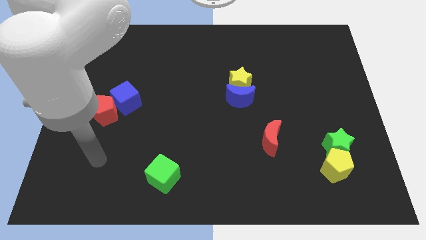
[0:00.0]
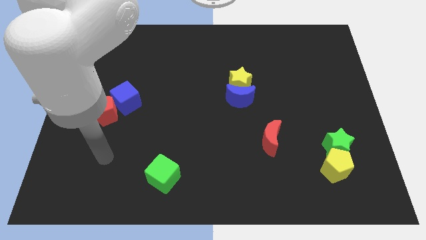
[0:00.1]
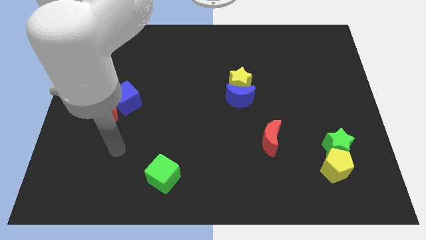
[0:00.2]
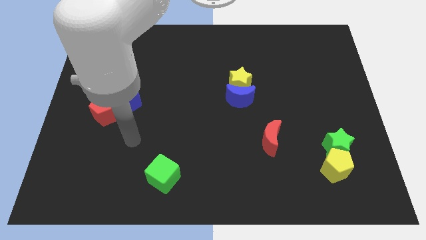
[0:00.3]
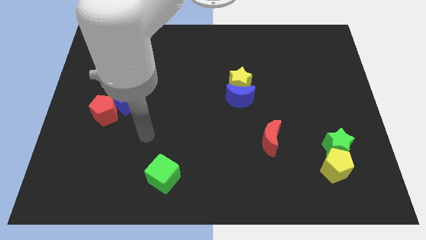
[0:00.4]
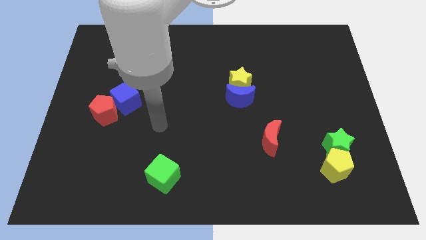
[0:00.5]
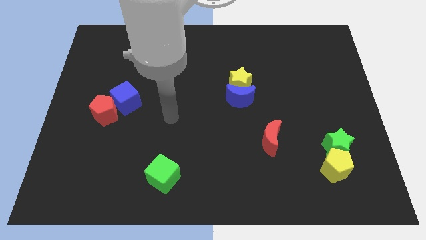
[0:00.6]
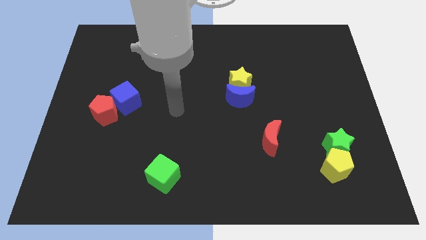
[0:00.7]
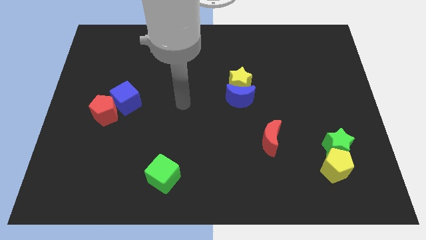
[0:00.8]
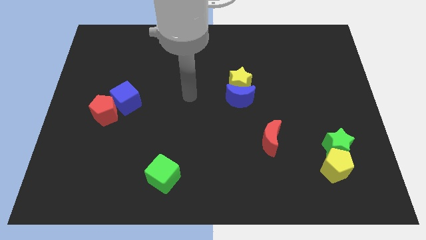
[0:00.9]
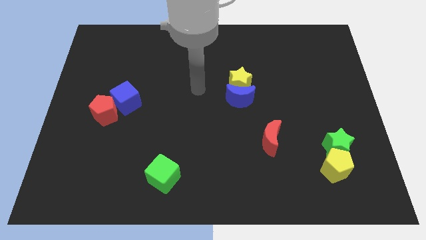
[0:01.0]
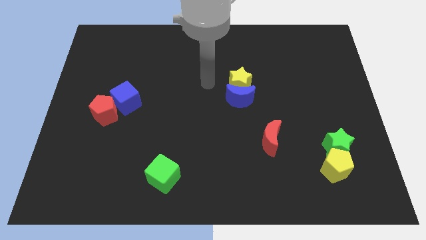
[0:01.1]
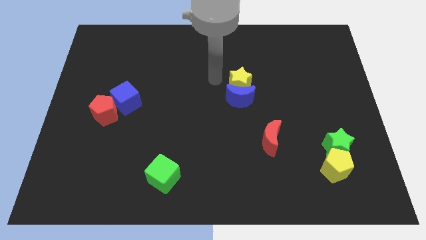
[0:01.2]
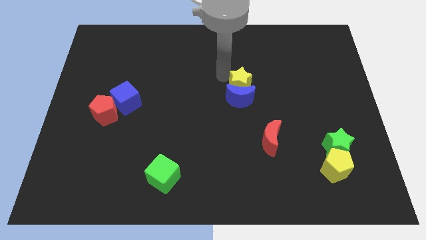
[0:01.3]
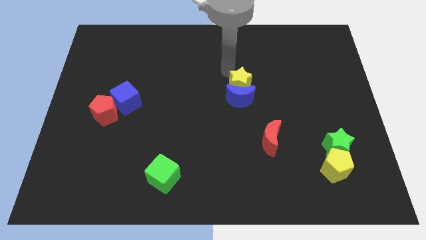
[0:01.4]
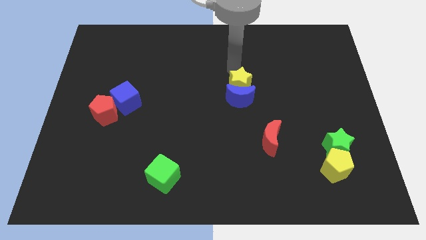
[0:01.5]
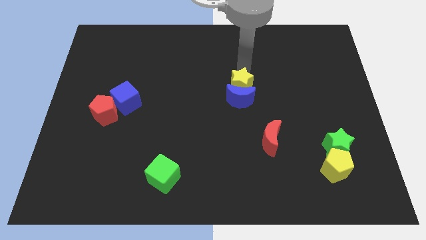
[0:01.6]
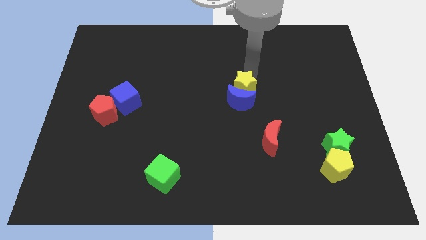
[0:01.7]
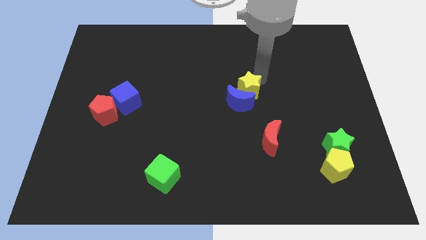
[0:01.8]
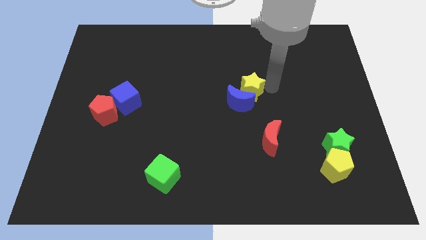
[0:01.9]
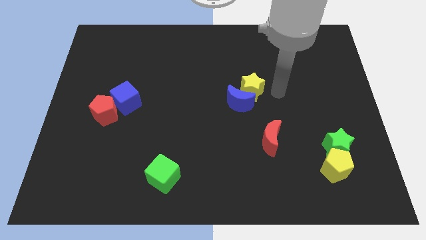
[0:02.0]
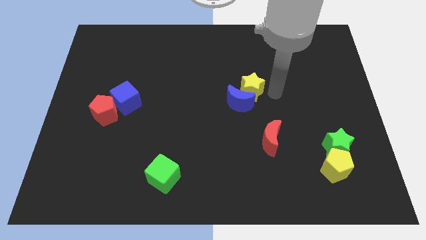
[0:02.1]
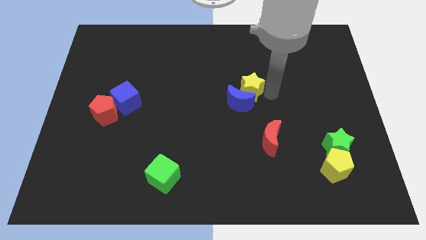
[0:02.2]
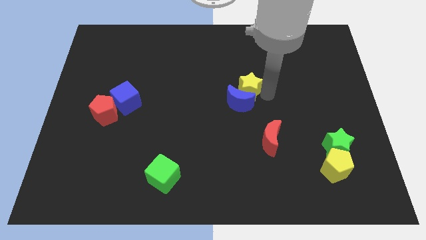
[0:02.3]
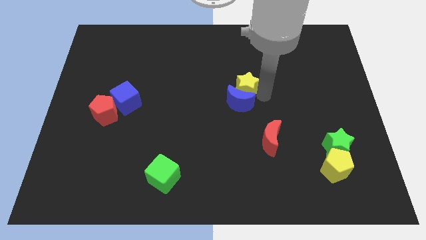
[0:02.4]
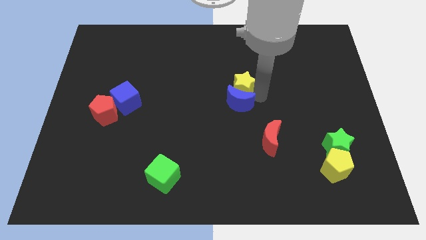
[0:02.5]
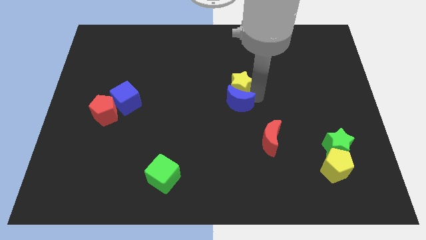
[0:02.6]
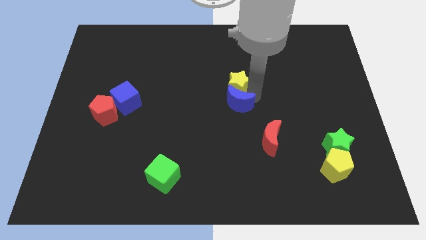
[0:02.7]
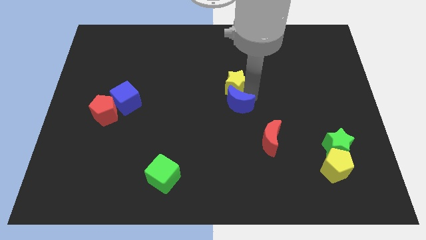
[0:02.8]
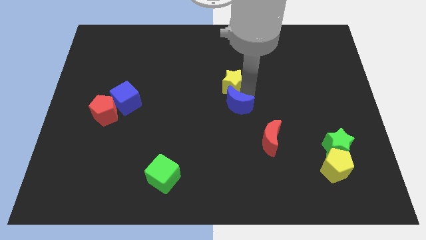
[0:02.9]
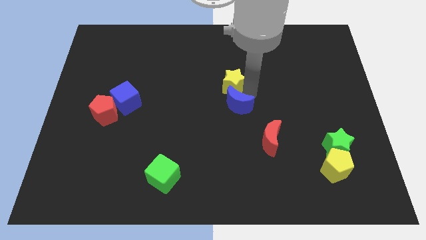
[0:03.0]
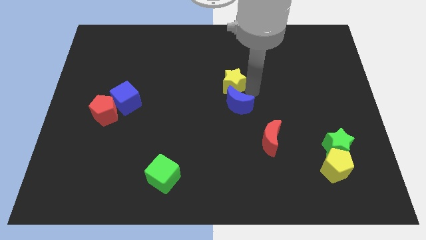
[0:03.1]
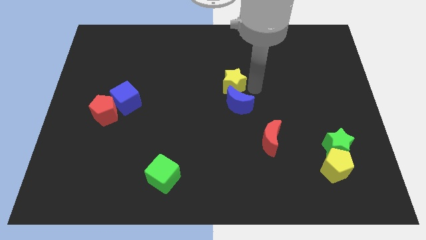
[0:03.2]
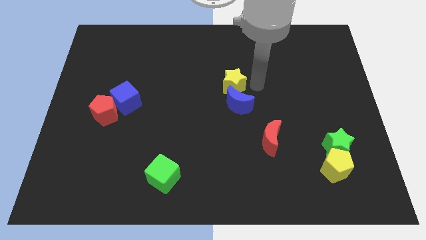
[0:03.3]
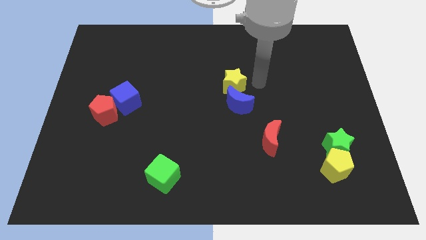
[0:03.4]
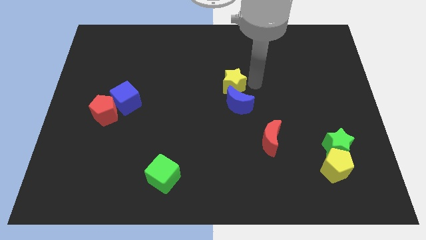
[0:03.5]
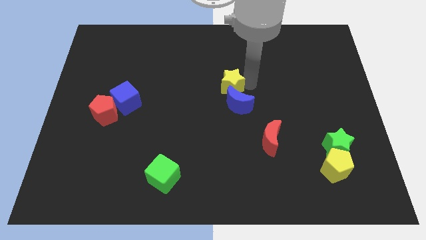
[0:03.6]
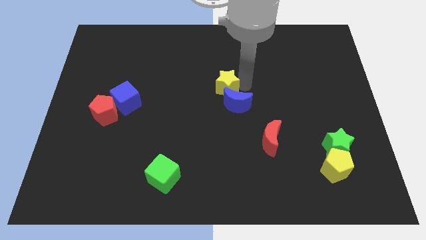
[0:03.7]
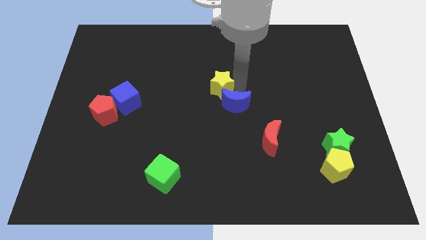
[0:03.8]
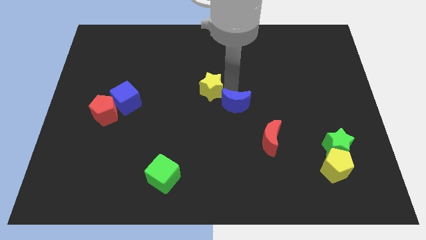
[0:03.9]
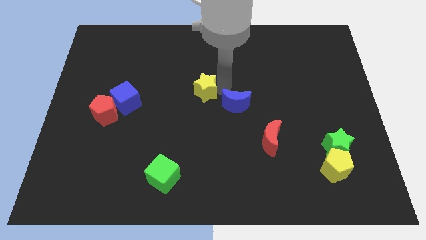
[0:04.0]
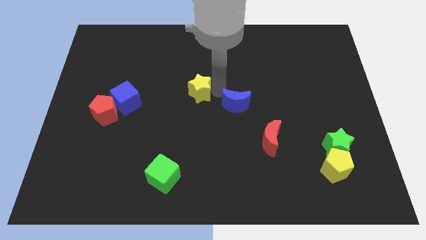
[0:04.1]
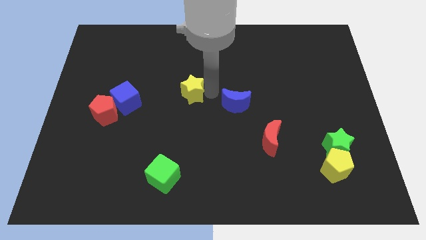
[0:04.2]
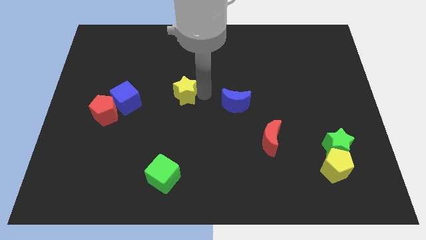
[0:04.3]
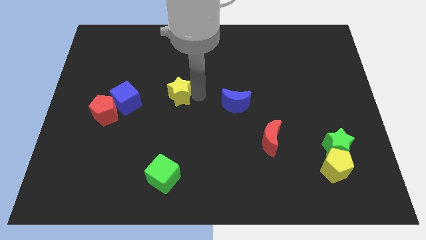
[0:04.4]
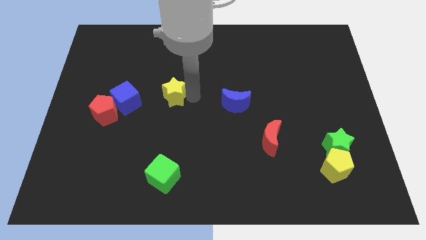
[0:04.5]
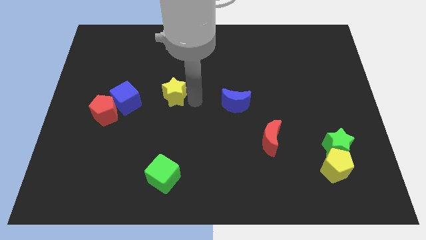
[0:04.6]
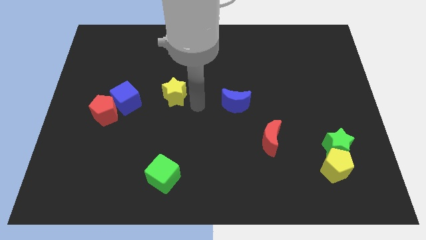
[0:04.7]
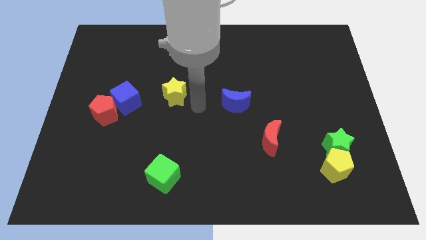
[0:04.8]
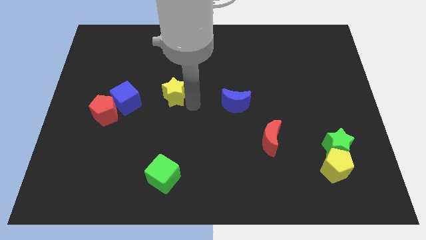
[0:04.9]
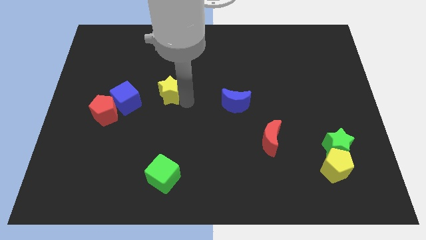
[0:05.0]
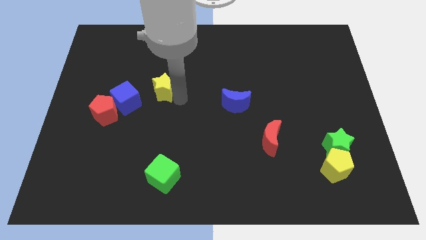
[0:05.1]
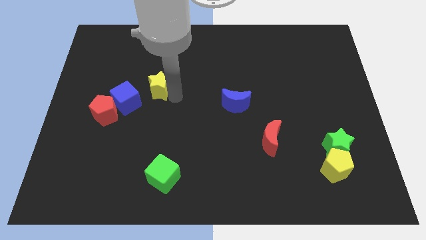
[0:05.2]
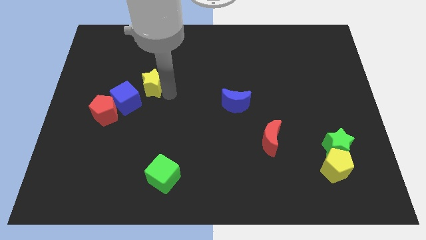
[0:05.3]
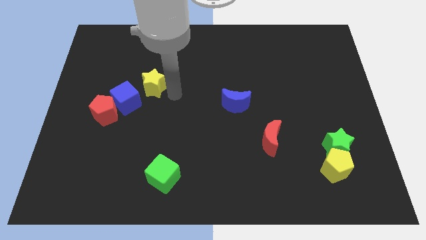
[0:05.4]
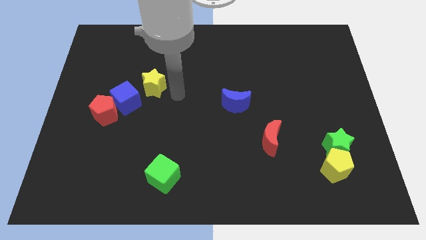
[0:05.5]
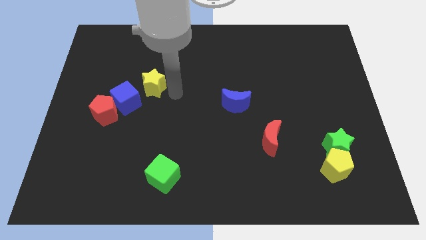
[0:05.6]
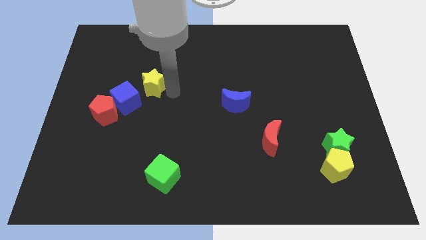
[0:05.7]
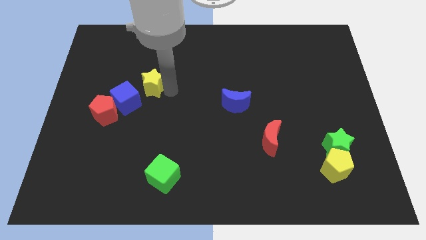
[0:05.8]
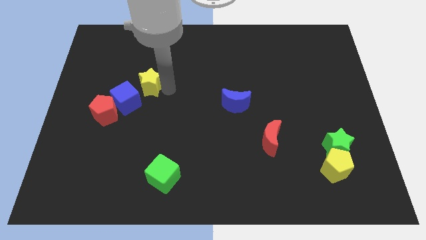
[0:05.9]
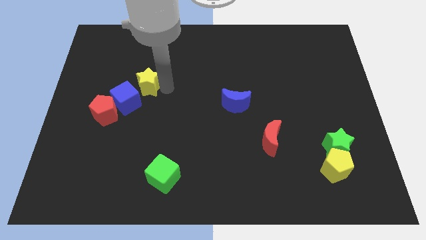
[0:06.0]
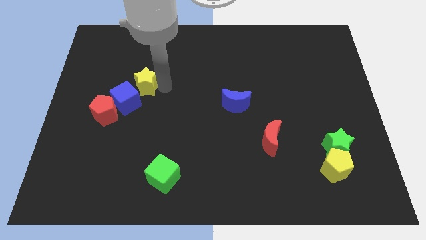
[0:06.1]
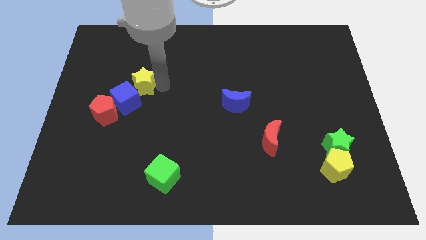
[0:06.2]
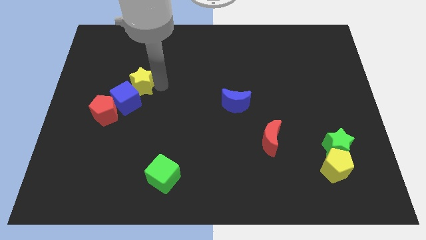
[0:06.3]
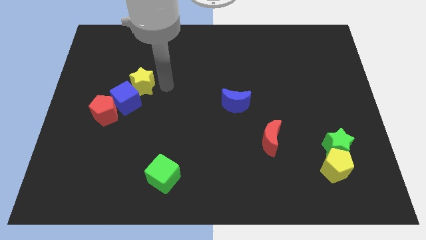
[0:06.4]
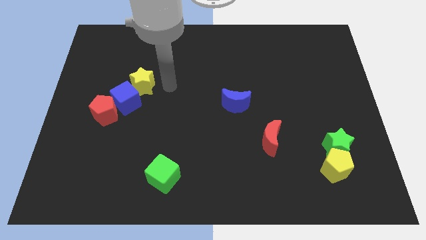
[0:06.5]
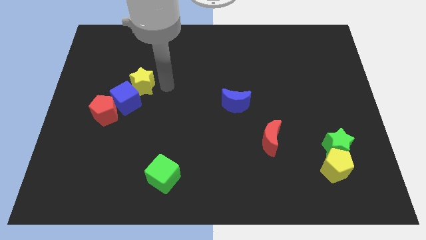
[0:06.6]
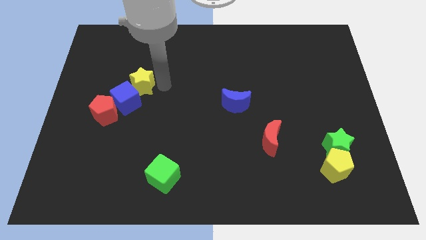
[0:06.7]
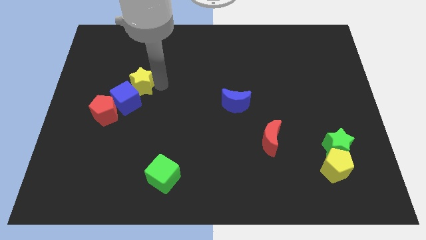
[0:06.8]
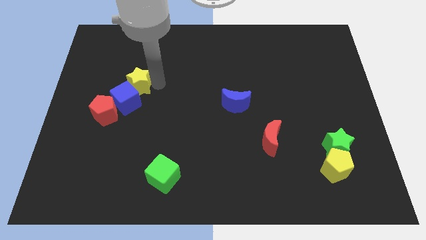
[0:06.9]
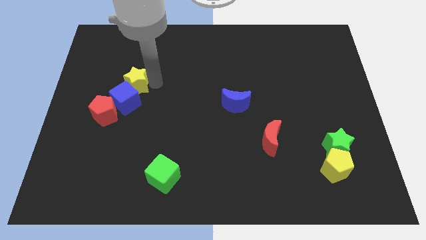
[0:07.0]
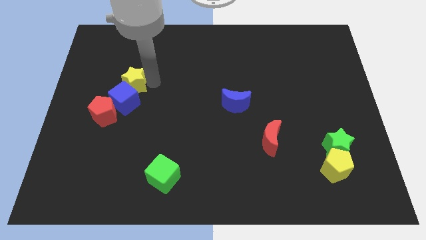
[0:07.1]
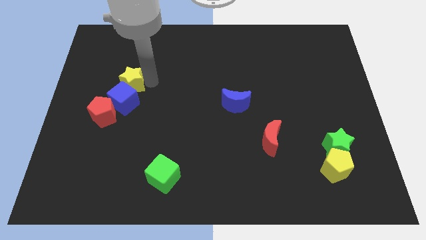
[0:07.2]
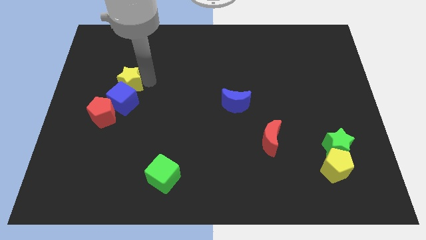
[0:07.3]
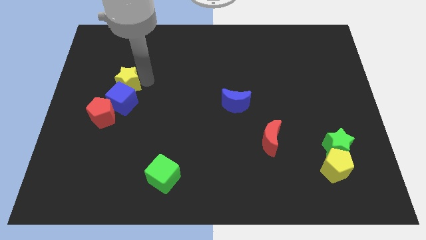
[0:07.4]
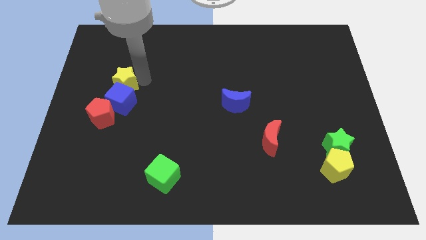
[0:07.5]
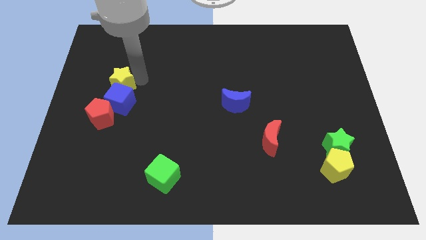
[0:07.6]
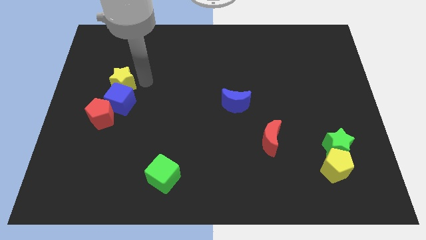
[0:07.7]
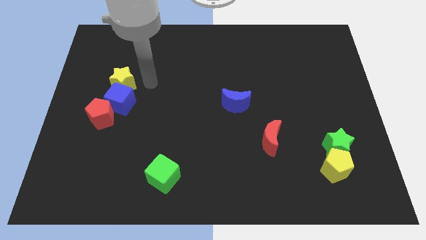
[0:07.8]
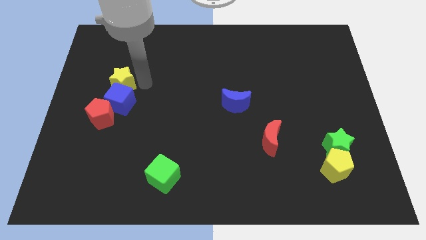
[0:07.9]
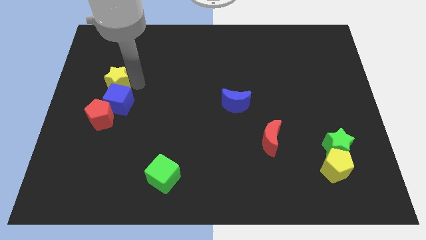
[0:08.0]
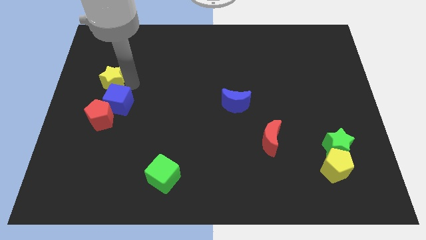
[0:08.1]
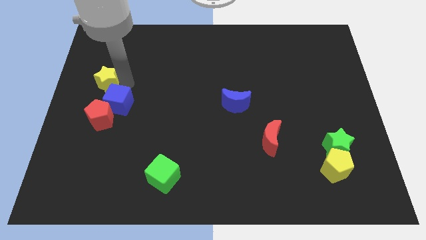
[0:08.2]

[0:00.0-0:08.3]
slide the yellow star to the center left
